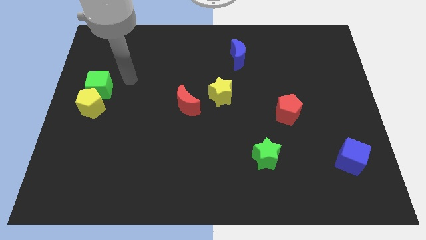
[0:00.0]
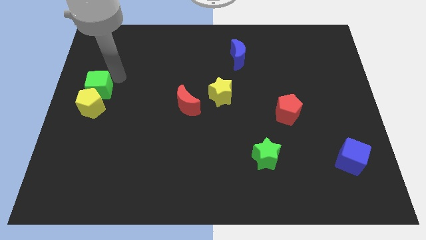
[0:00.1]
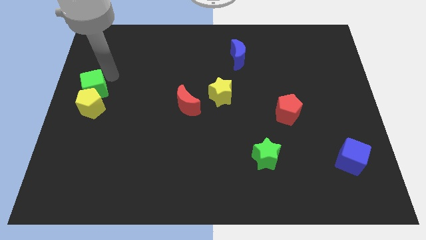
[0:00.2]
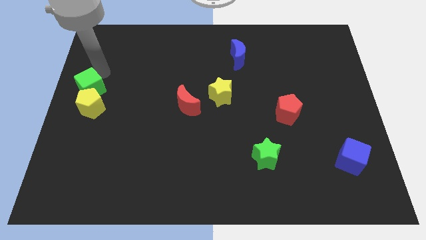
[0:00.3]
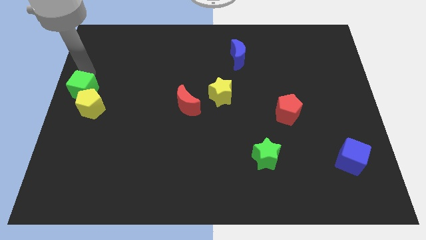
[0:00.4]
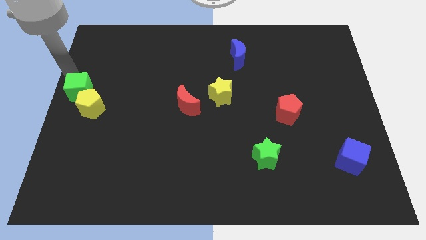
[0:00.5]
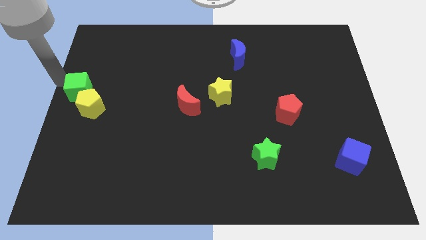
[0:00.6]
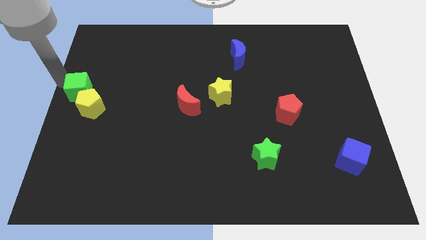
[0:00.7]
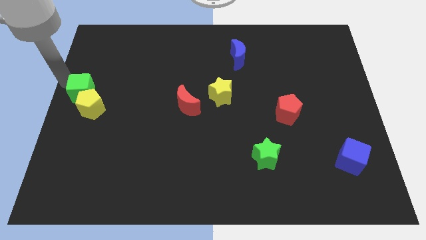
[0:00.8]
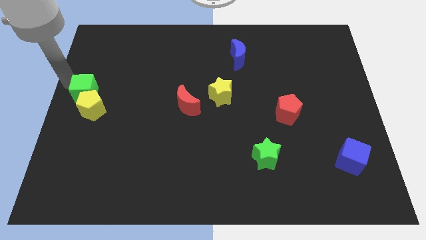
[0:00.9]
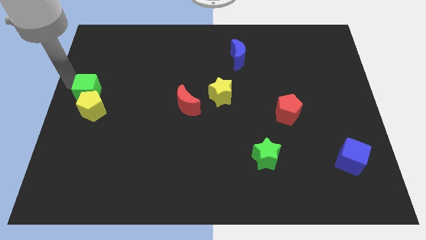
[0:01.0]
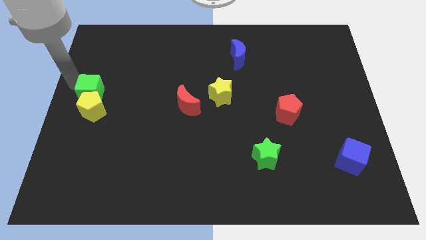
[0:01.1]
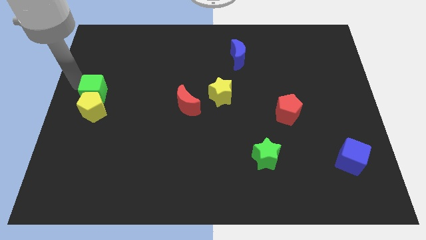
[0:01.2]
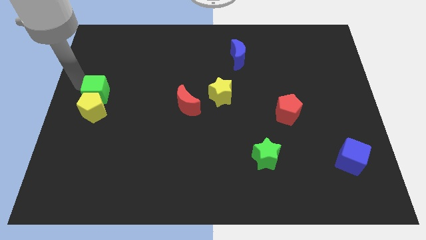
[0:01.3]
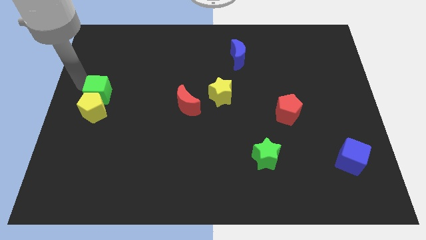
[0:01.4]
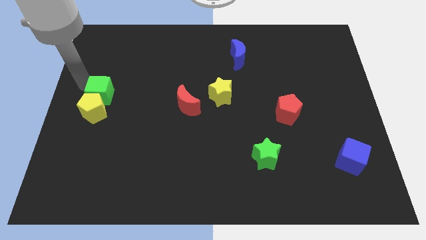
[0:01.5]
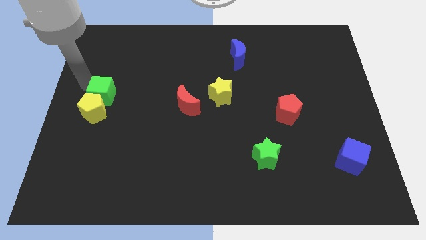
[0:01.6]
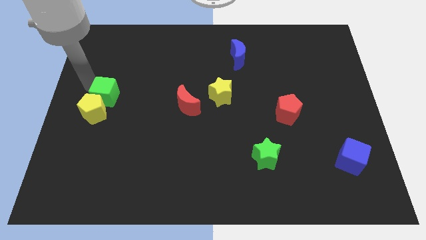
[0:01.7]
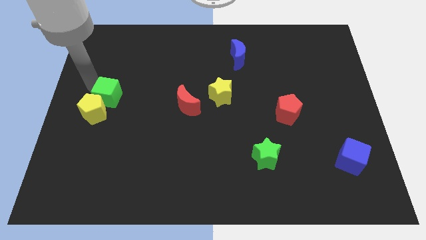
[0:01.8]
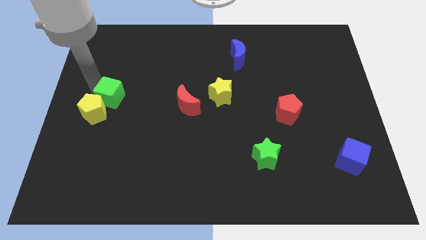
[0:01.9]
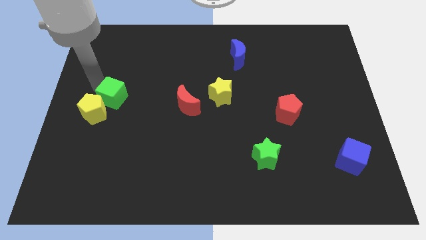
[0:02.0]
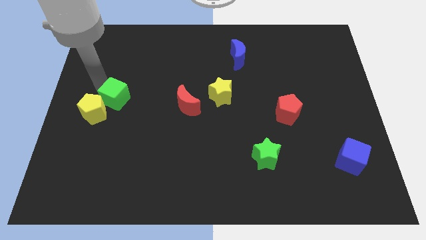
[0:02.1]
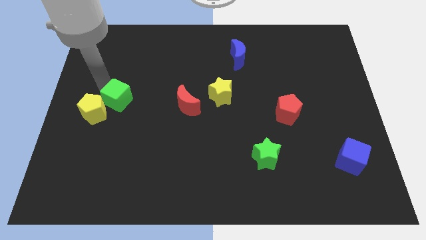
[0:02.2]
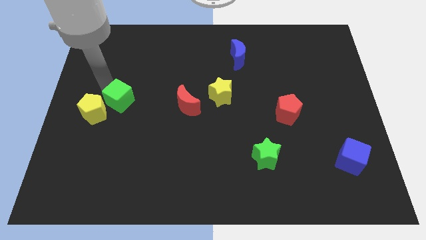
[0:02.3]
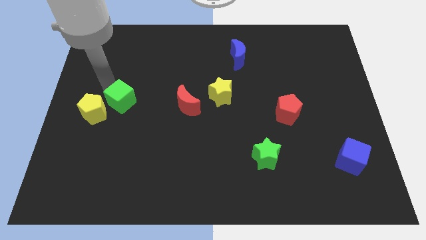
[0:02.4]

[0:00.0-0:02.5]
slide the green cube down and then right slightly

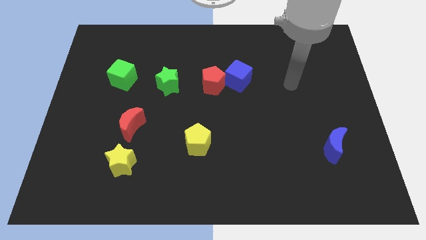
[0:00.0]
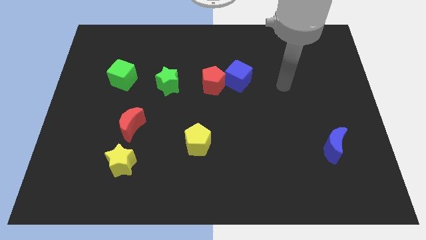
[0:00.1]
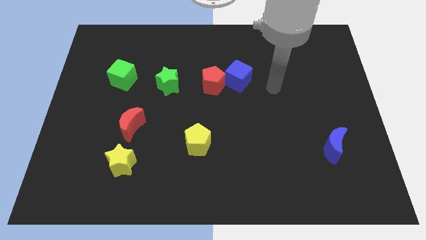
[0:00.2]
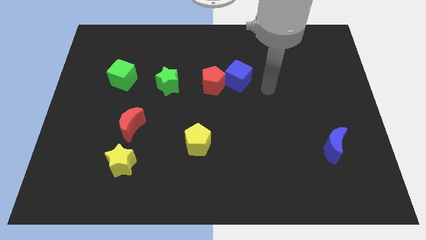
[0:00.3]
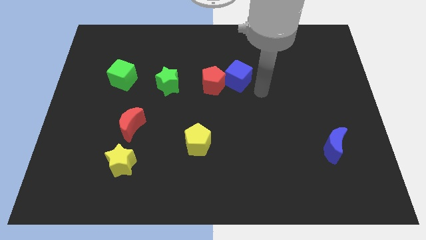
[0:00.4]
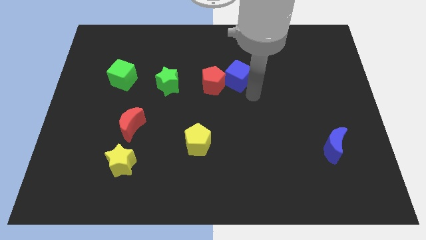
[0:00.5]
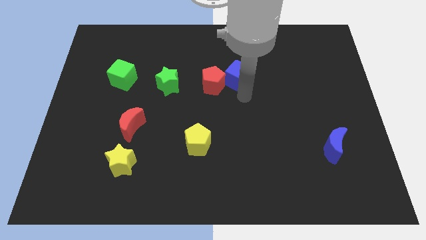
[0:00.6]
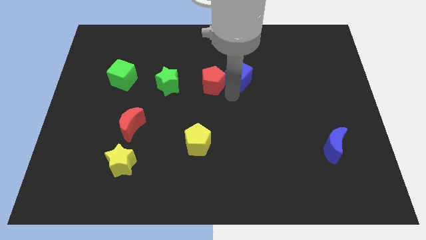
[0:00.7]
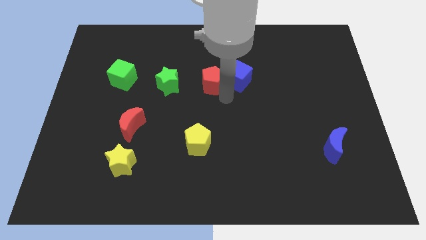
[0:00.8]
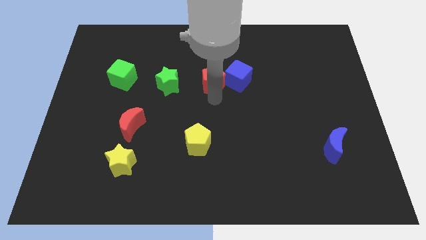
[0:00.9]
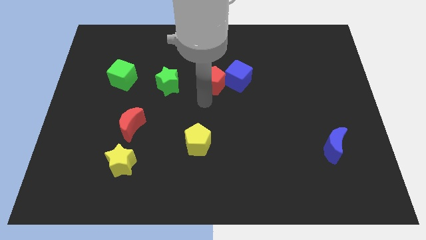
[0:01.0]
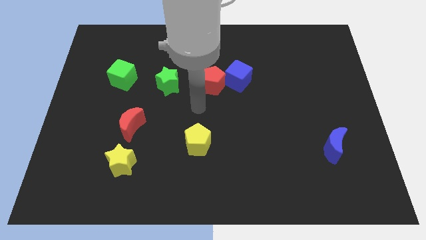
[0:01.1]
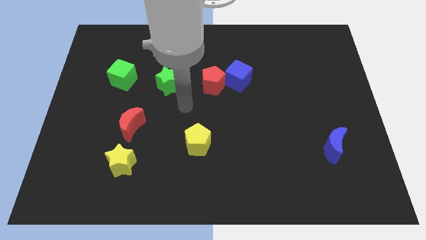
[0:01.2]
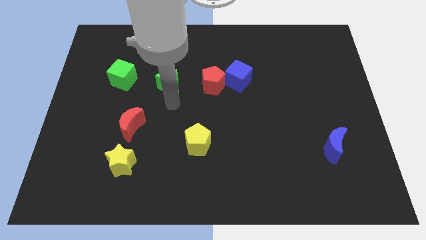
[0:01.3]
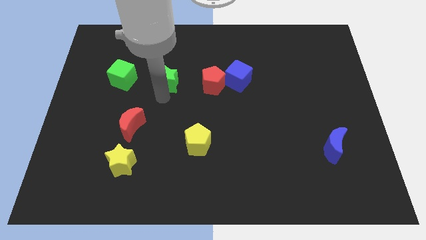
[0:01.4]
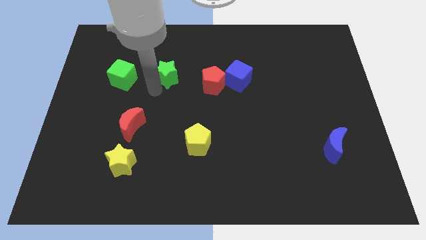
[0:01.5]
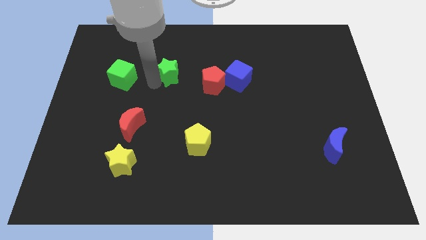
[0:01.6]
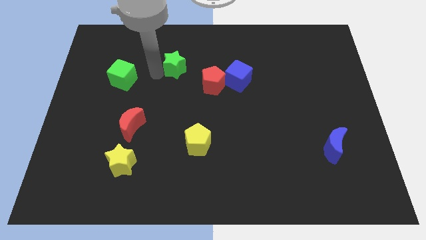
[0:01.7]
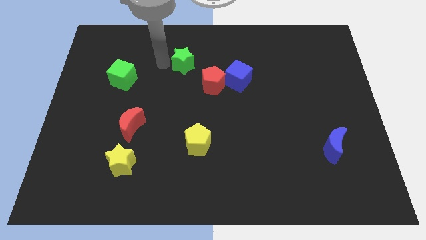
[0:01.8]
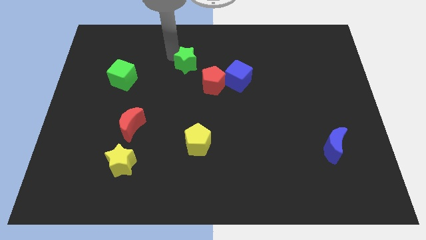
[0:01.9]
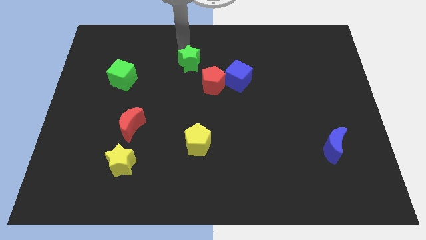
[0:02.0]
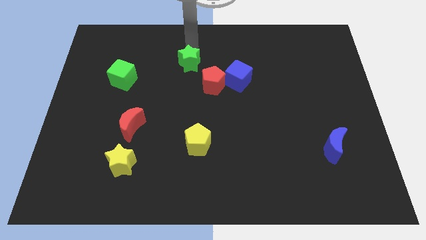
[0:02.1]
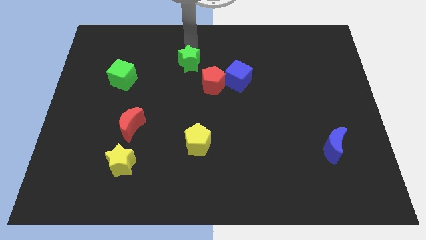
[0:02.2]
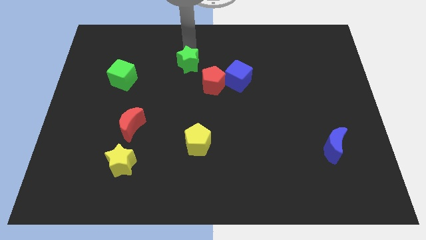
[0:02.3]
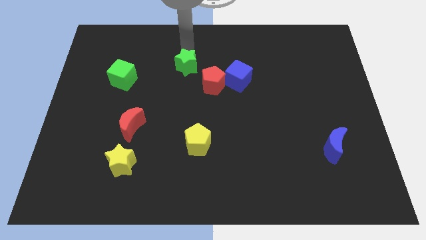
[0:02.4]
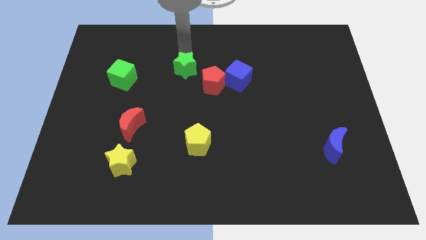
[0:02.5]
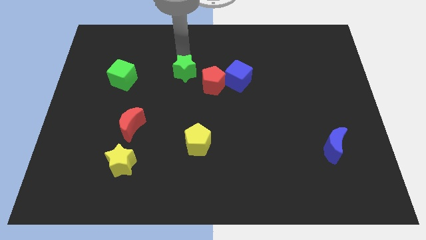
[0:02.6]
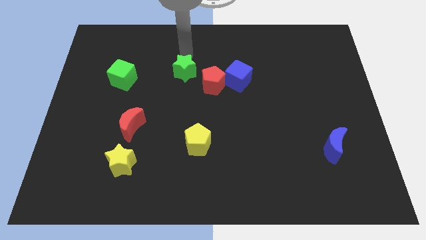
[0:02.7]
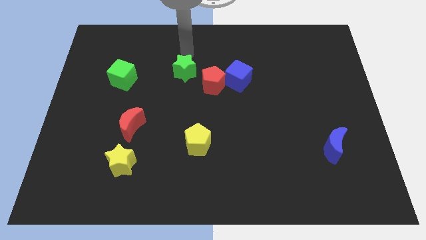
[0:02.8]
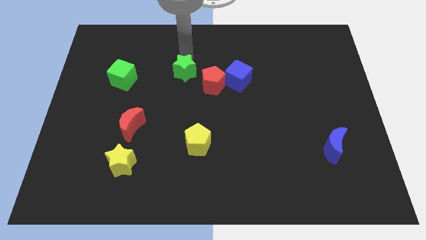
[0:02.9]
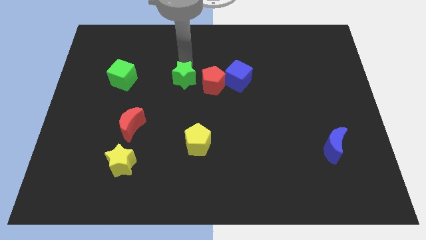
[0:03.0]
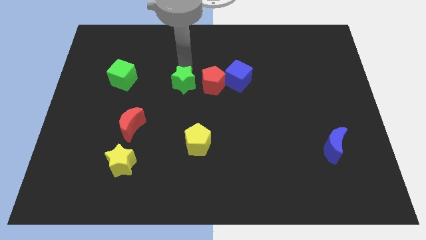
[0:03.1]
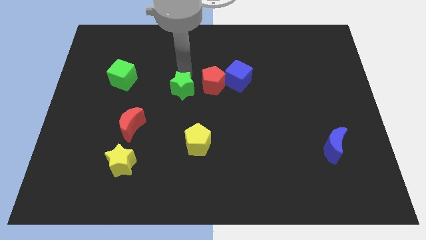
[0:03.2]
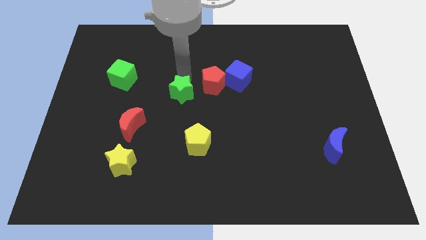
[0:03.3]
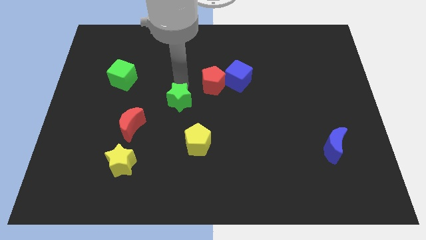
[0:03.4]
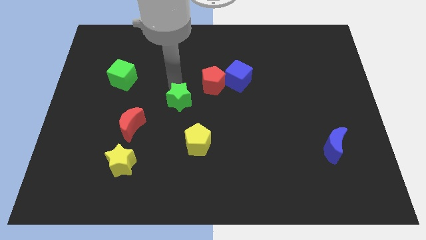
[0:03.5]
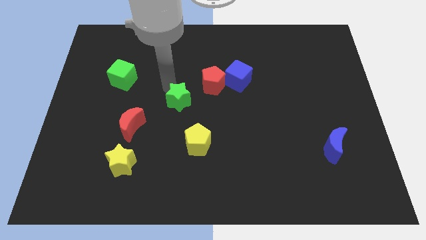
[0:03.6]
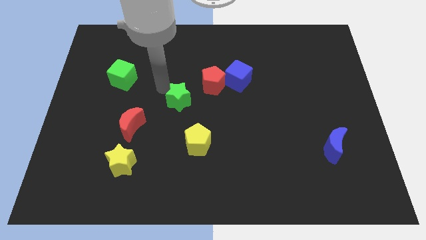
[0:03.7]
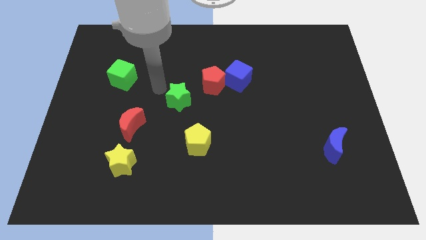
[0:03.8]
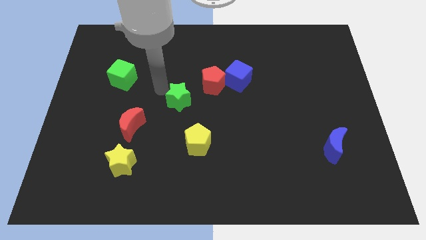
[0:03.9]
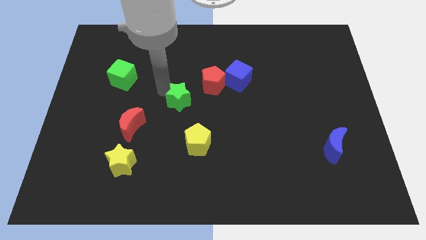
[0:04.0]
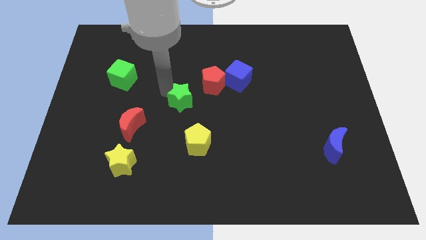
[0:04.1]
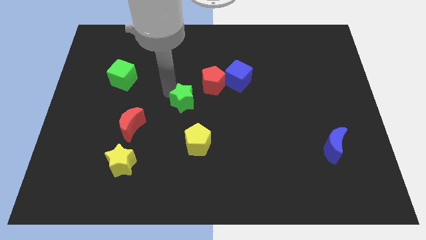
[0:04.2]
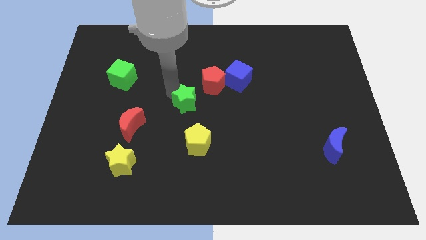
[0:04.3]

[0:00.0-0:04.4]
push the green star downwards and to the right diagonally a little bit

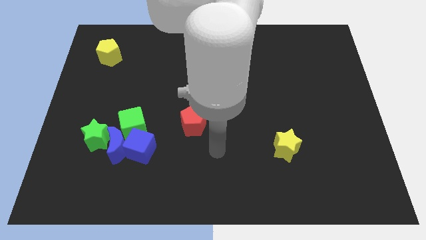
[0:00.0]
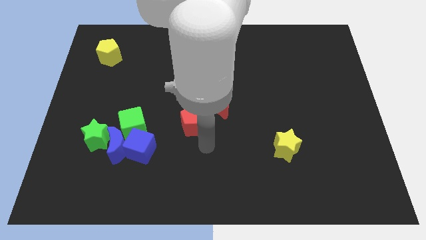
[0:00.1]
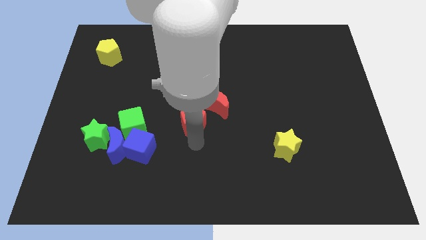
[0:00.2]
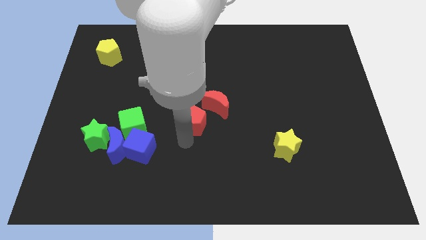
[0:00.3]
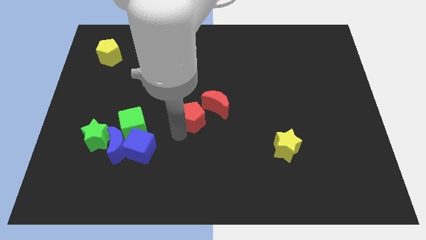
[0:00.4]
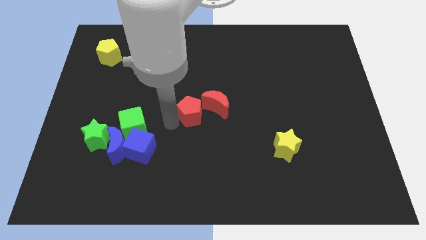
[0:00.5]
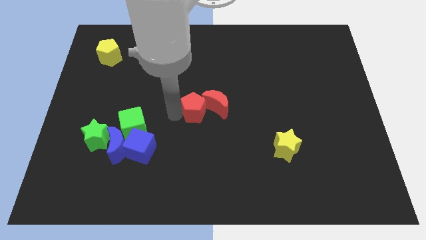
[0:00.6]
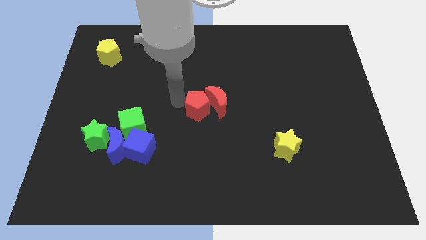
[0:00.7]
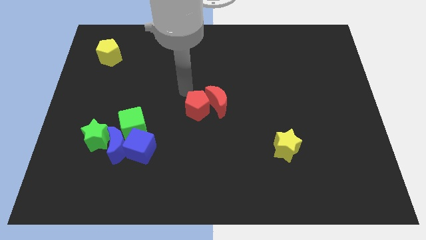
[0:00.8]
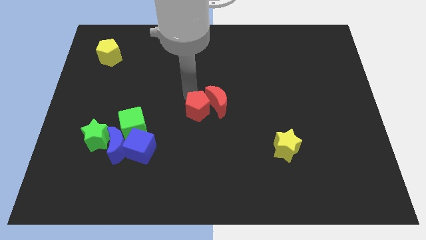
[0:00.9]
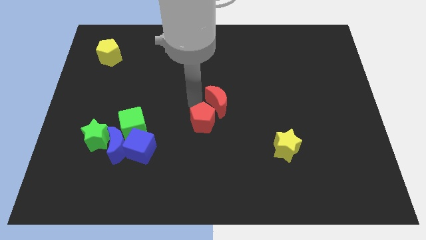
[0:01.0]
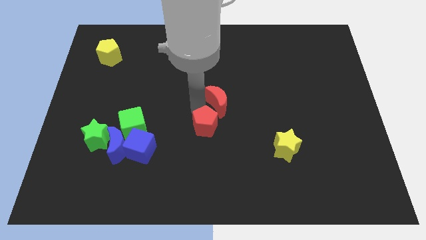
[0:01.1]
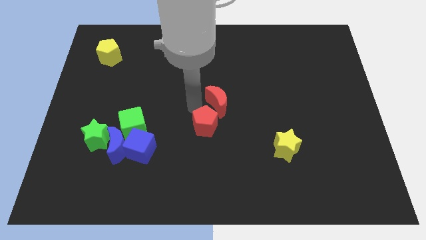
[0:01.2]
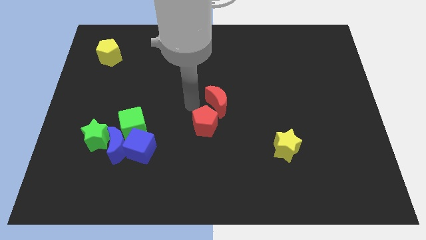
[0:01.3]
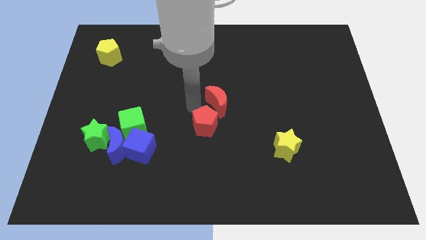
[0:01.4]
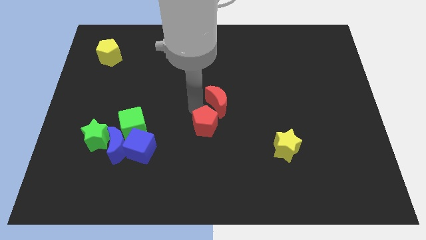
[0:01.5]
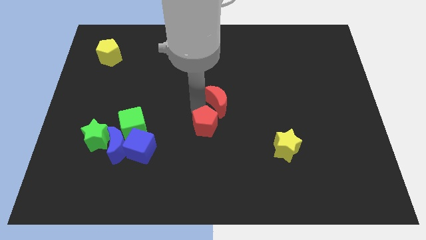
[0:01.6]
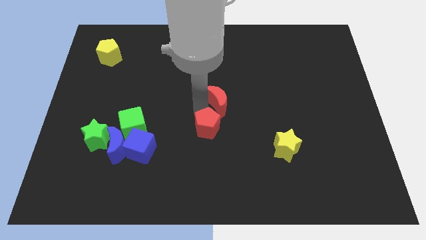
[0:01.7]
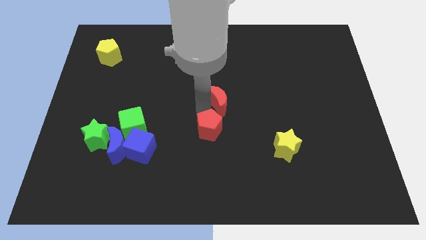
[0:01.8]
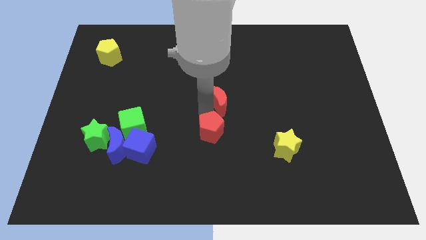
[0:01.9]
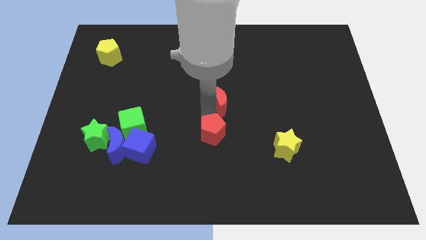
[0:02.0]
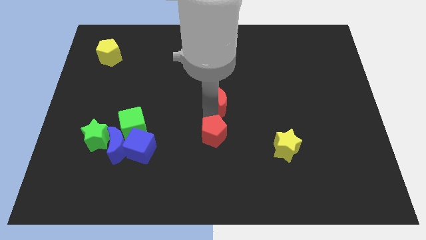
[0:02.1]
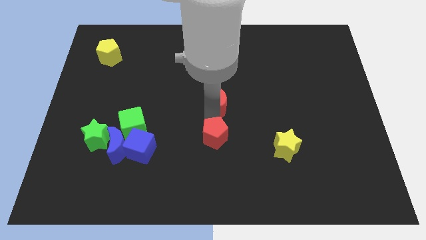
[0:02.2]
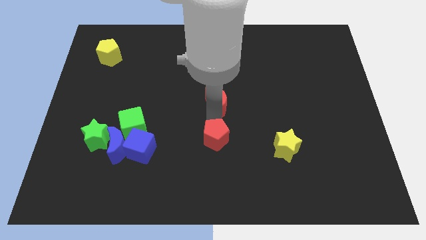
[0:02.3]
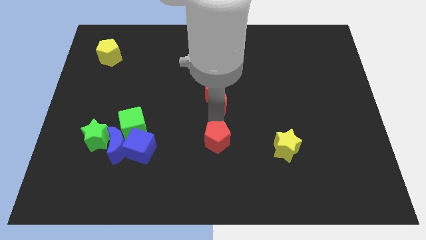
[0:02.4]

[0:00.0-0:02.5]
push the red pentagon diagonally downwards and to the right a little
